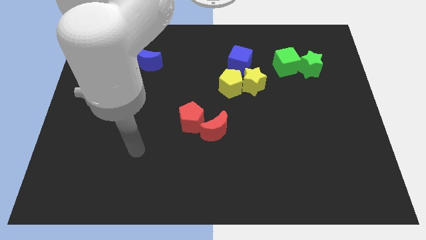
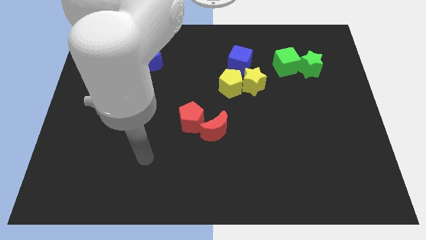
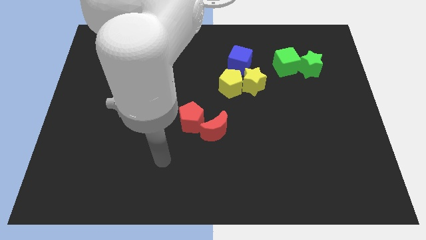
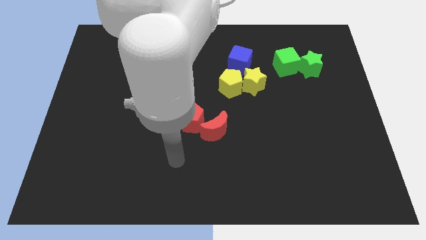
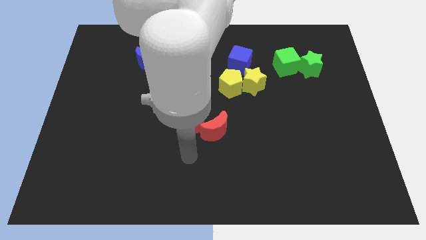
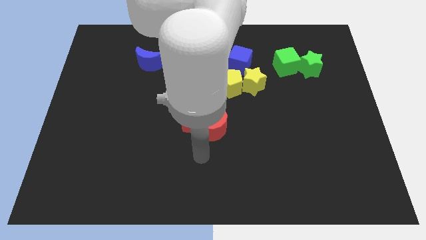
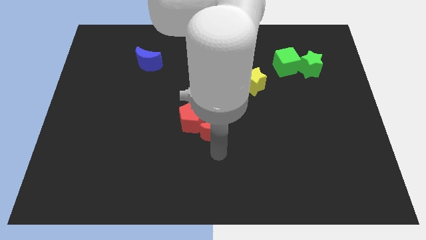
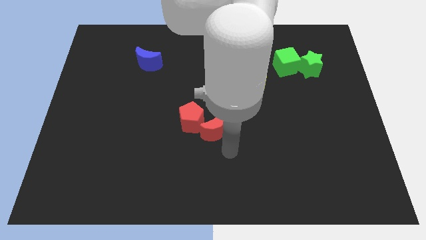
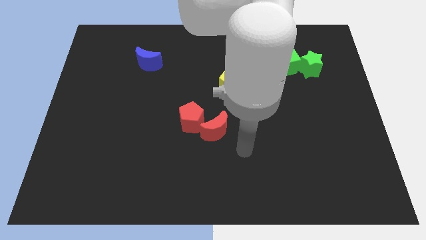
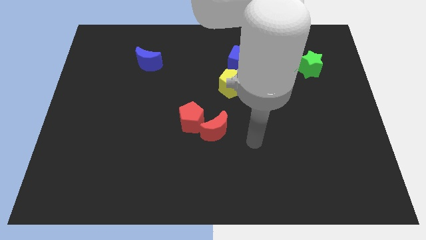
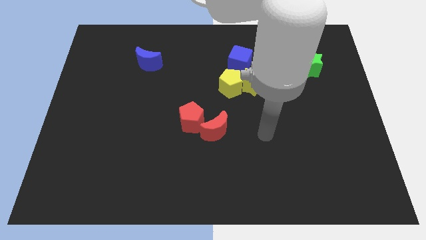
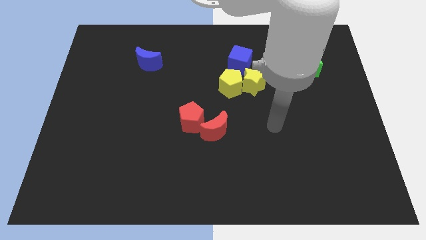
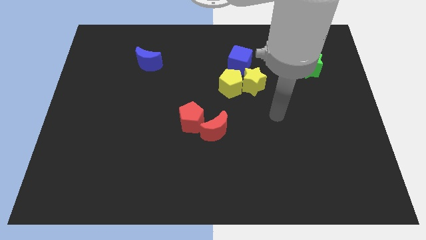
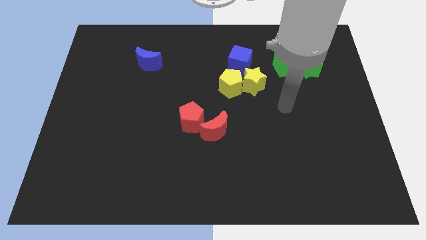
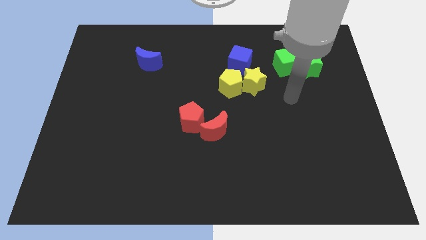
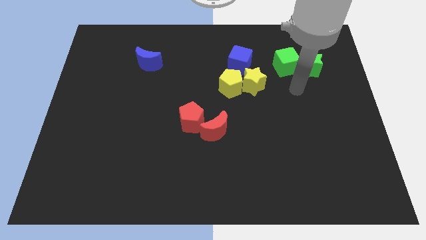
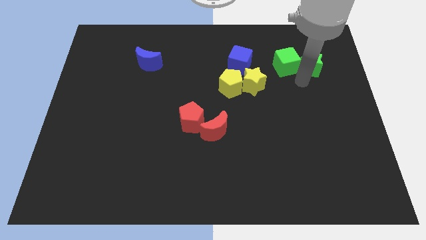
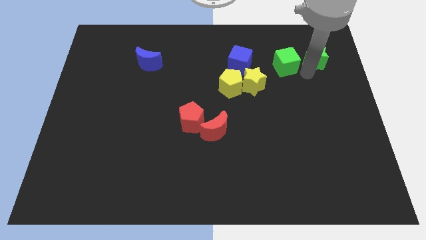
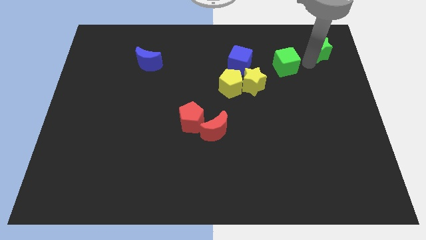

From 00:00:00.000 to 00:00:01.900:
pull the green cube apart from the green star

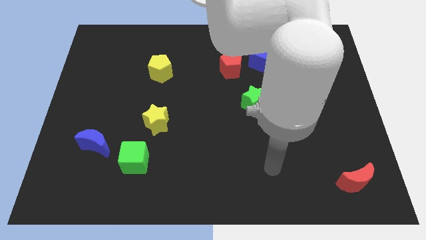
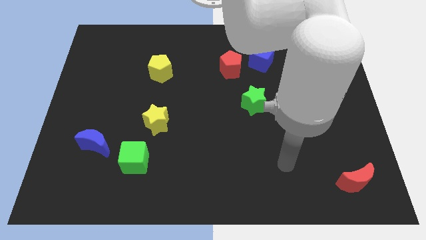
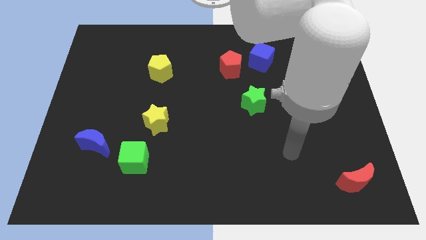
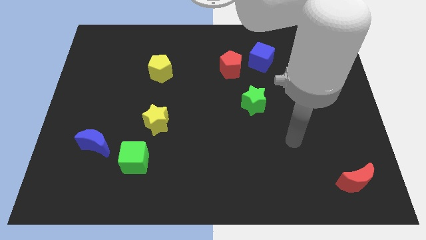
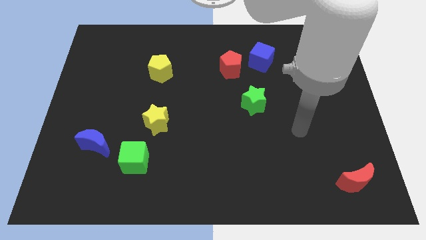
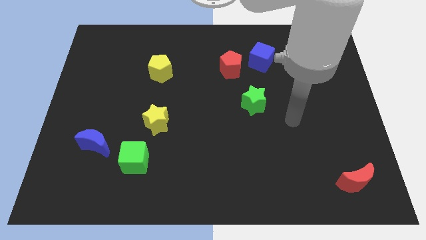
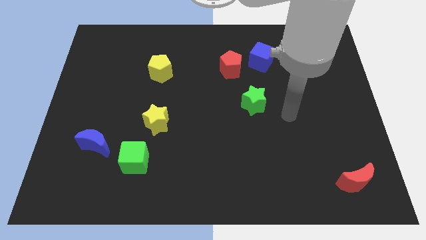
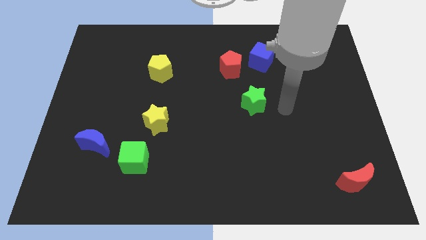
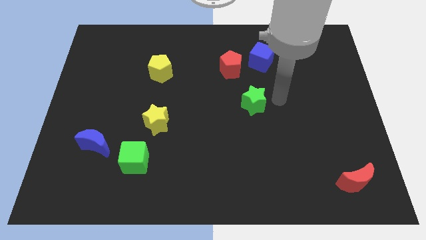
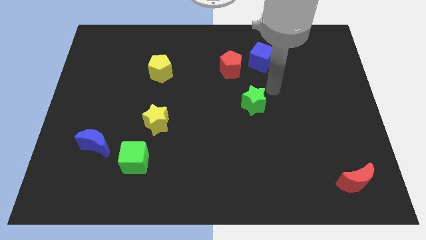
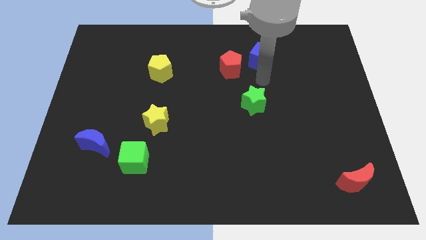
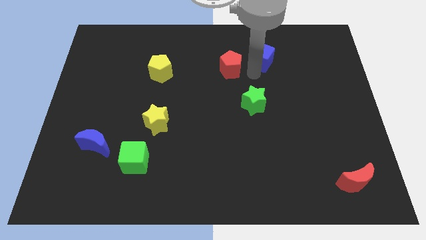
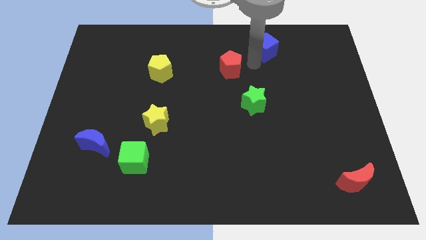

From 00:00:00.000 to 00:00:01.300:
move the red pentagon away from the blue cube

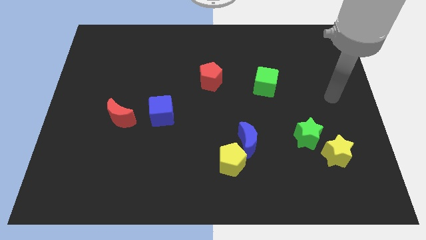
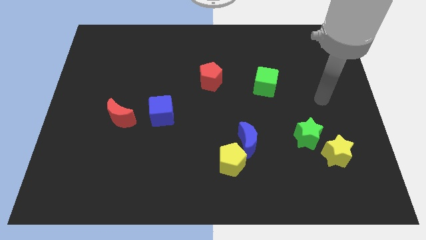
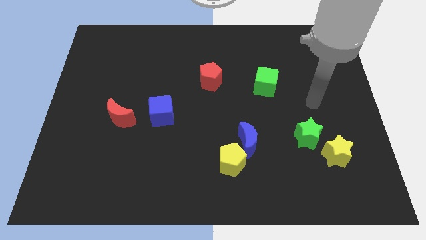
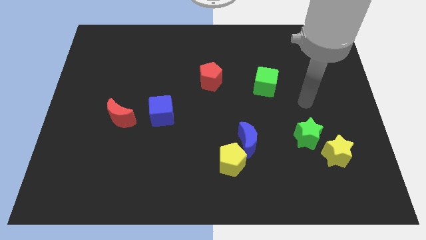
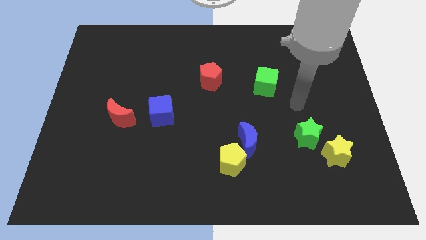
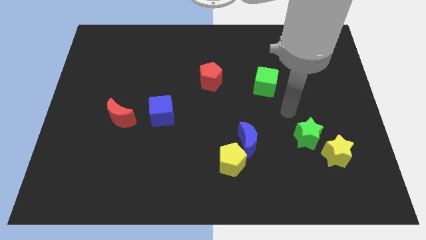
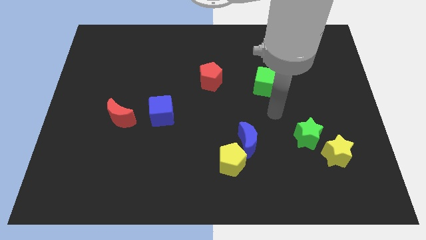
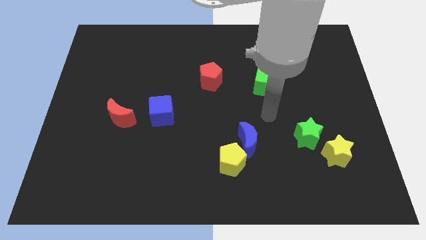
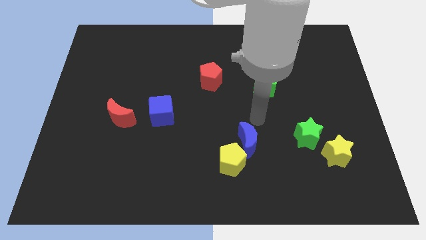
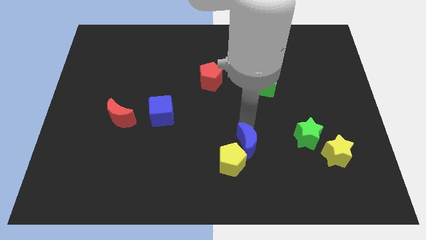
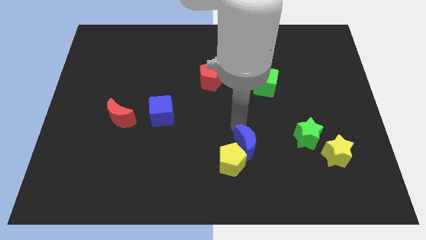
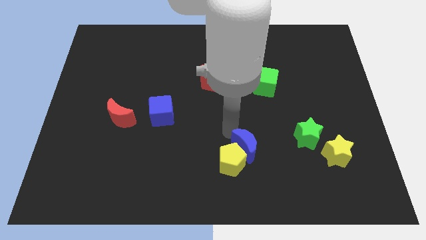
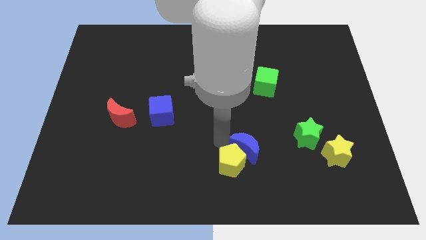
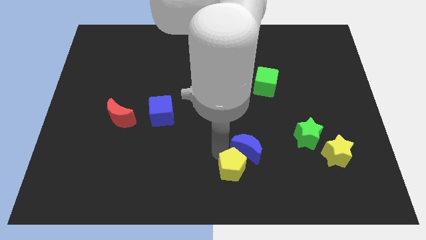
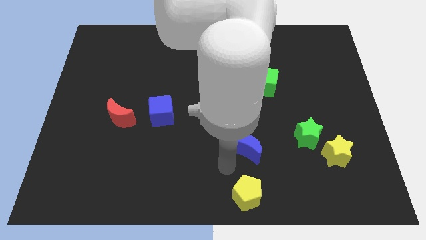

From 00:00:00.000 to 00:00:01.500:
pull the blue moon apart from the yellow pentagon

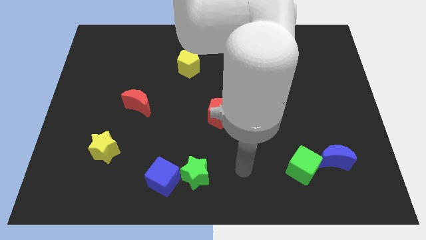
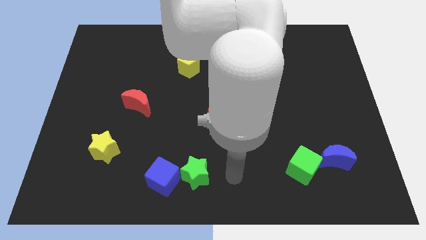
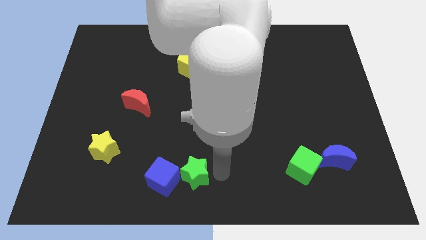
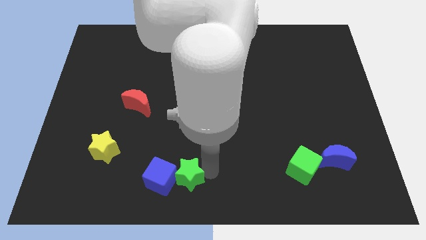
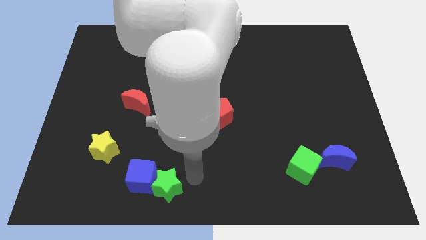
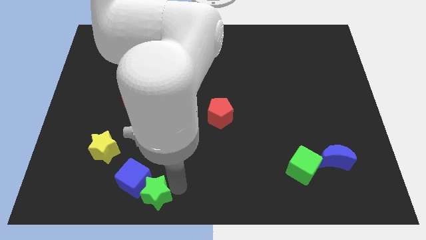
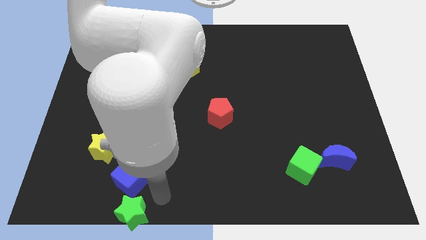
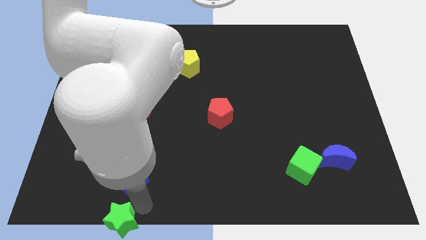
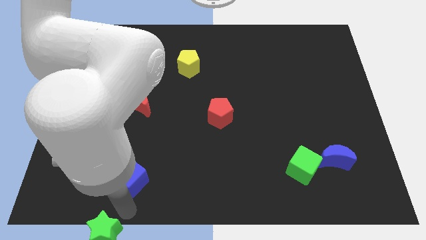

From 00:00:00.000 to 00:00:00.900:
pull the blue cube apart from the green star

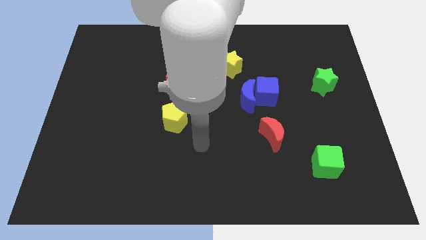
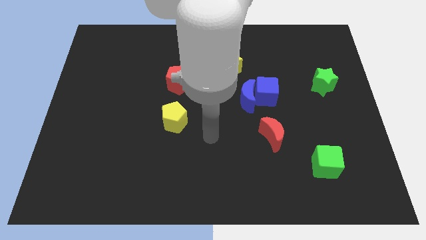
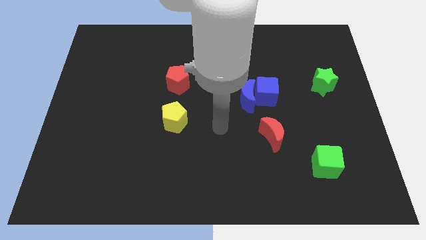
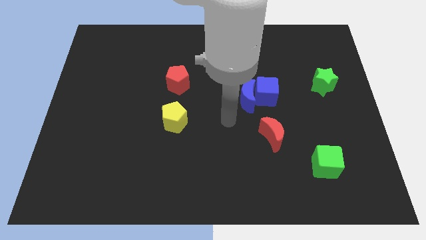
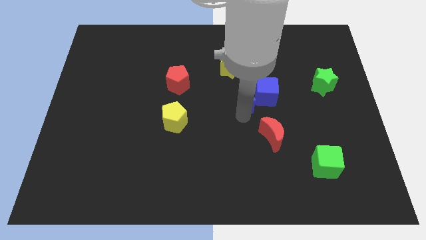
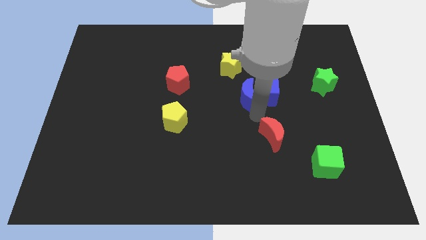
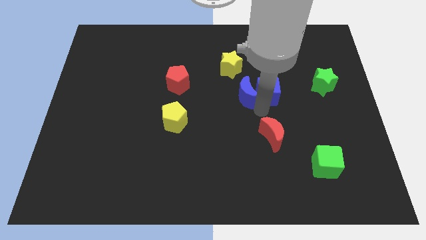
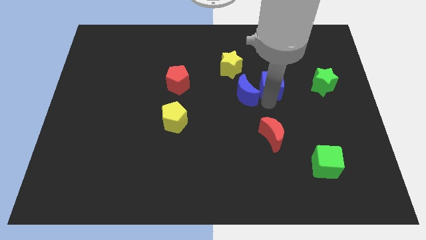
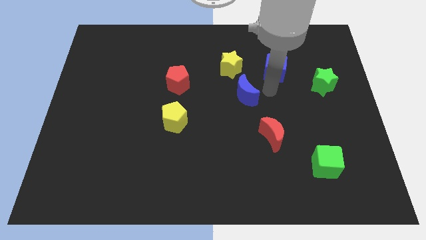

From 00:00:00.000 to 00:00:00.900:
separate the blue moon from the blue cube

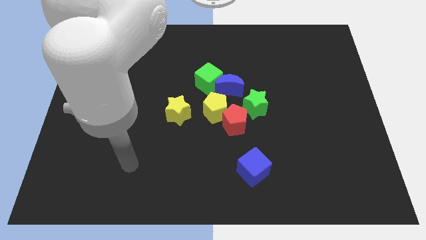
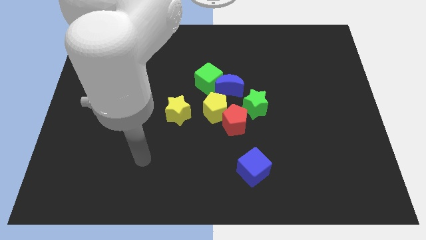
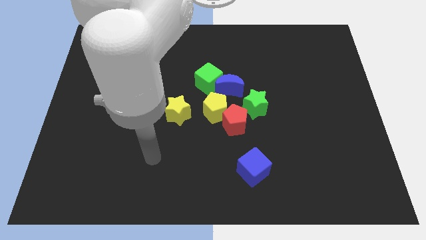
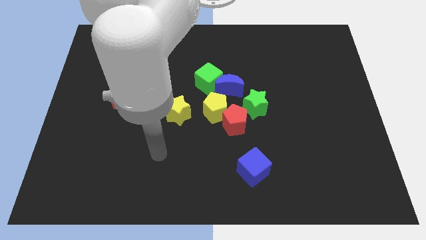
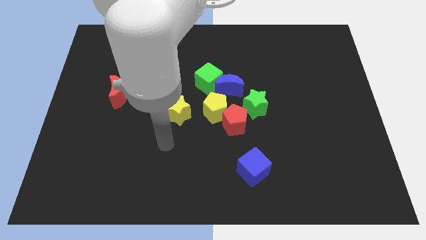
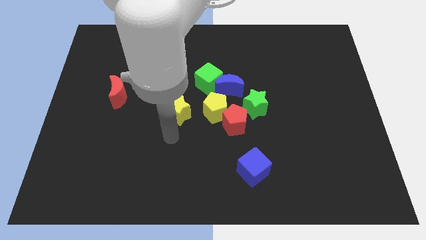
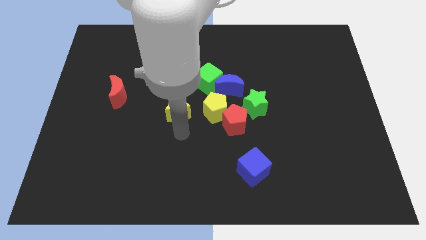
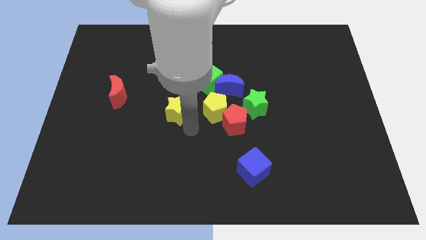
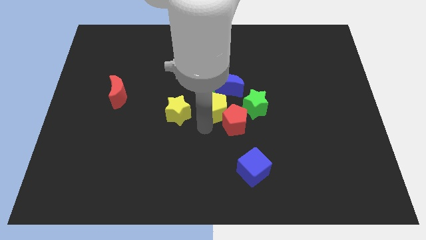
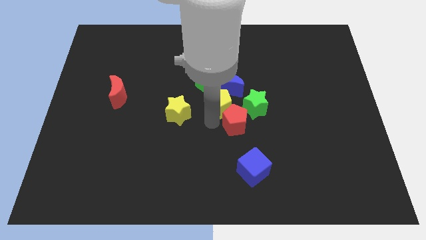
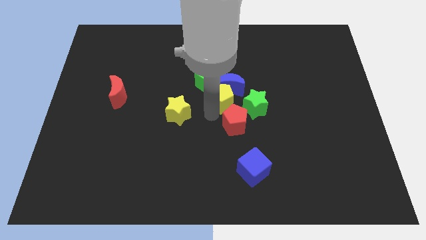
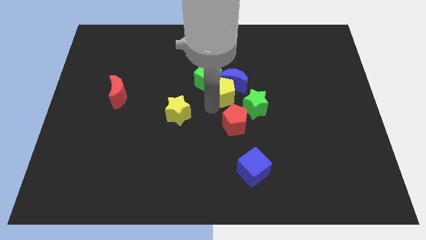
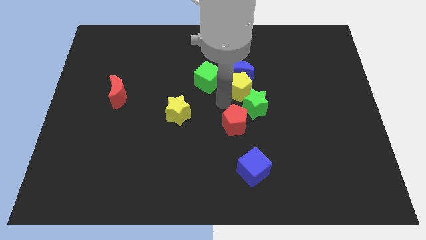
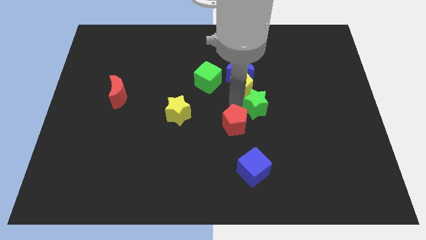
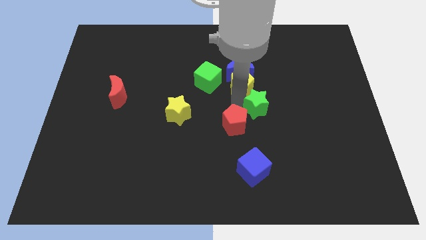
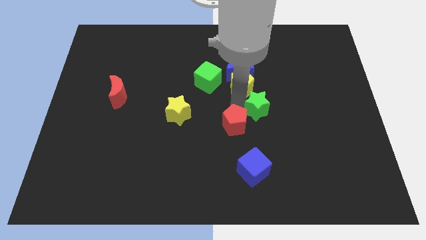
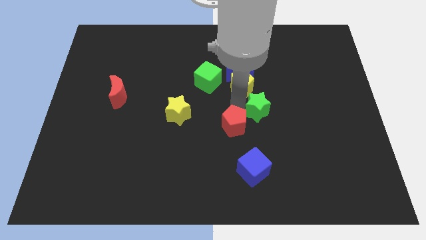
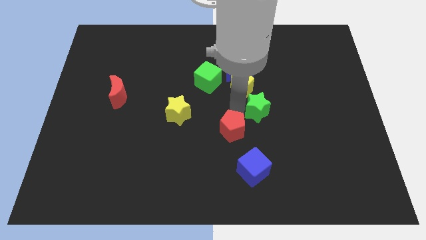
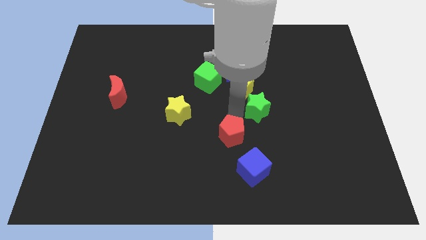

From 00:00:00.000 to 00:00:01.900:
separate the red pentagon from the yellow pentagon and green star

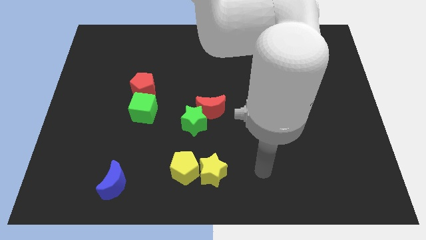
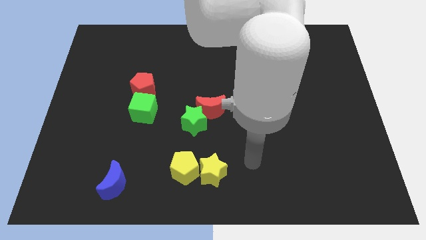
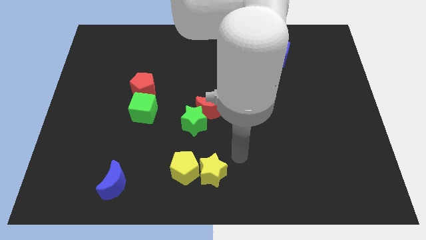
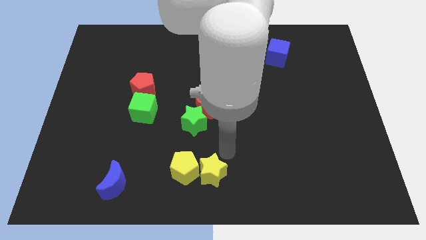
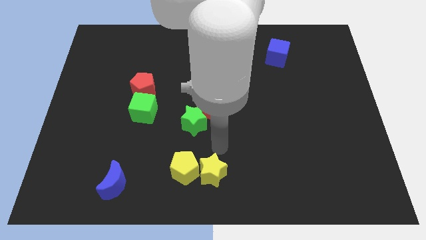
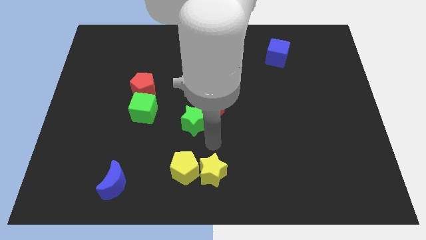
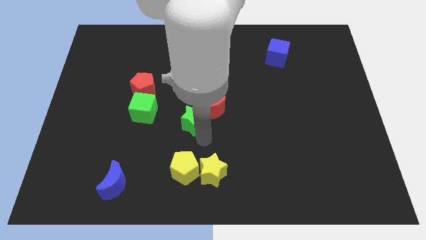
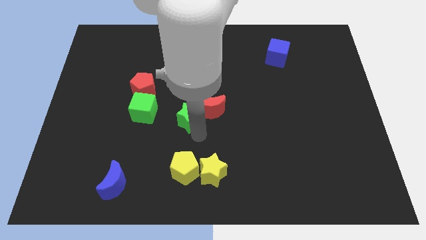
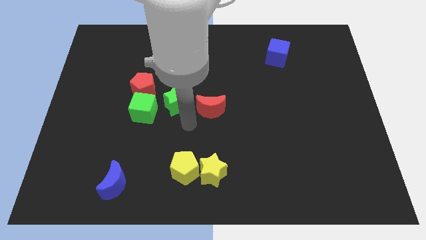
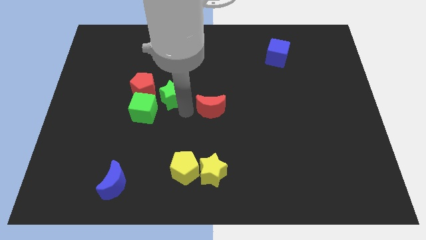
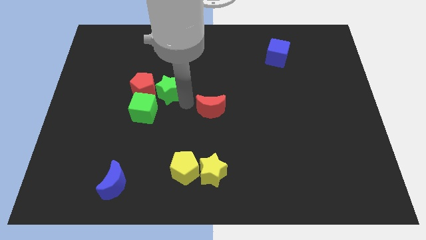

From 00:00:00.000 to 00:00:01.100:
separate the red moon from the green star
